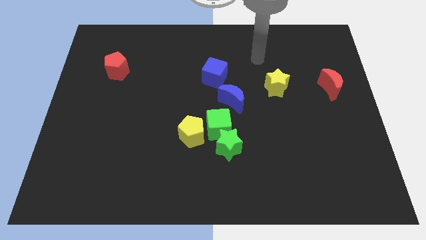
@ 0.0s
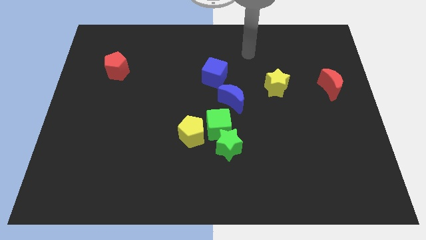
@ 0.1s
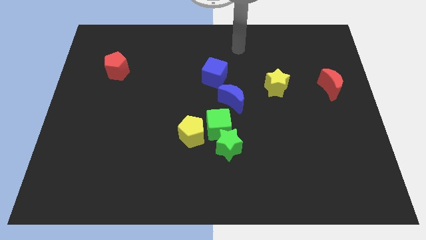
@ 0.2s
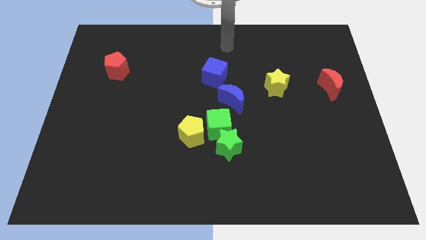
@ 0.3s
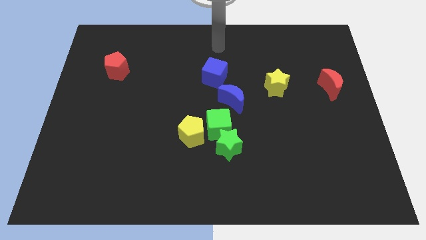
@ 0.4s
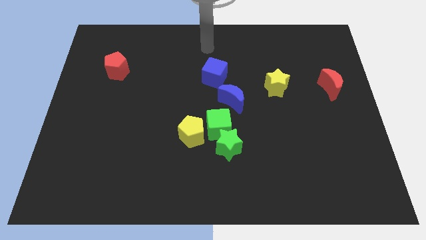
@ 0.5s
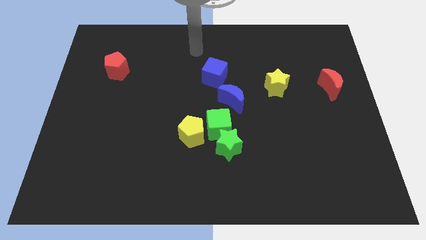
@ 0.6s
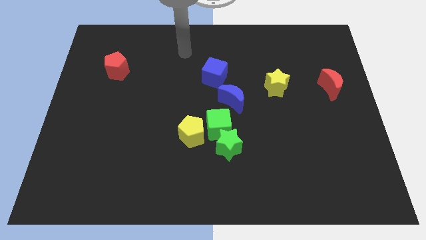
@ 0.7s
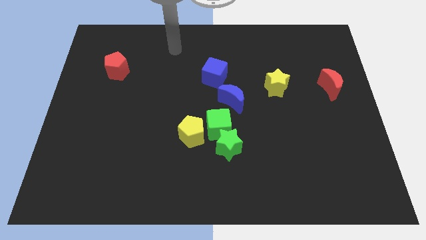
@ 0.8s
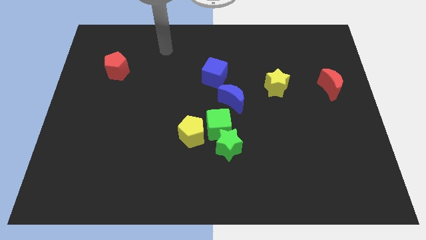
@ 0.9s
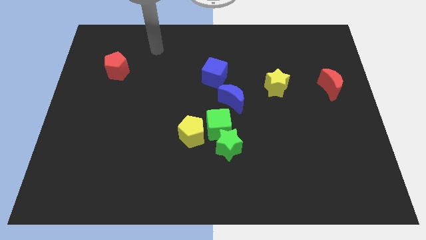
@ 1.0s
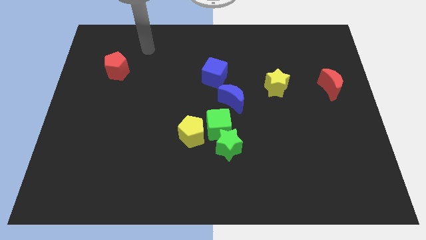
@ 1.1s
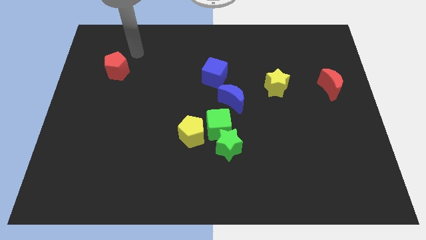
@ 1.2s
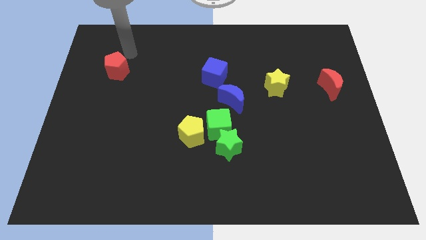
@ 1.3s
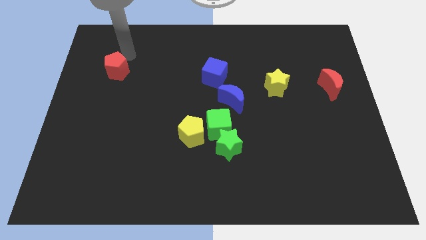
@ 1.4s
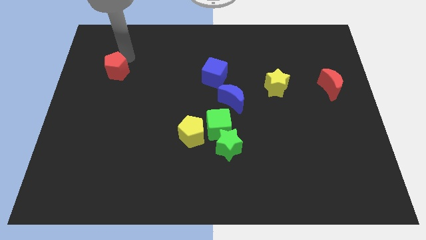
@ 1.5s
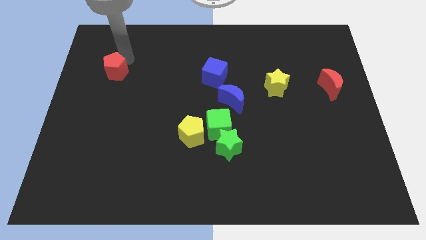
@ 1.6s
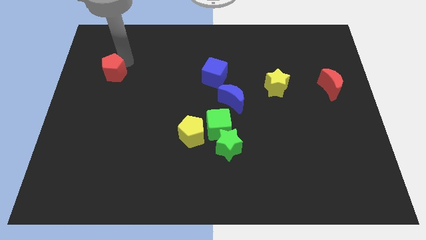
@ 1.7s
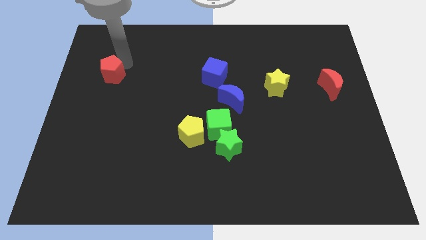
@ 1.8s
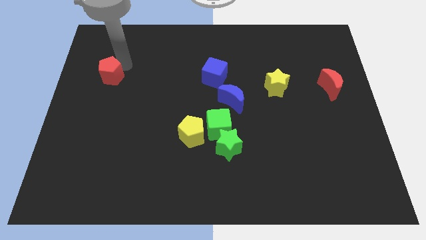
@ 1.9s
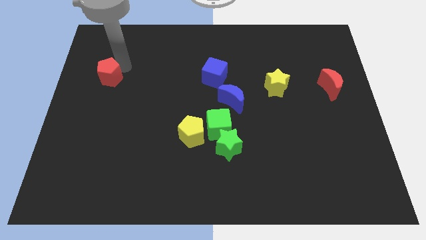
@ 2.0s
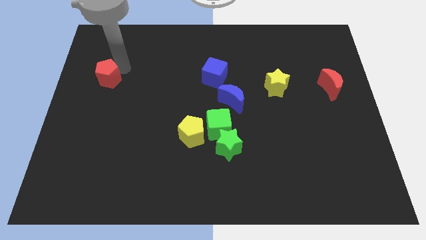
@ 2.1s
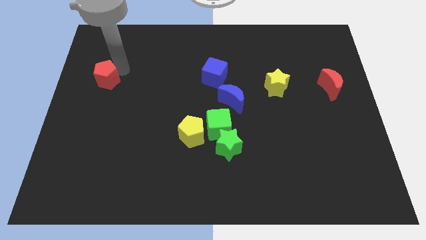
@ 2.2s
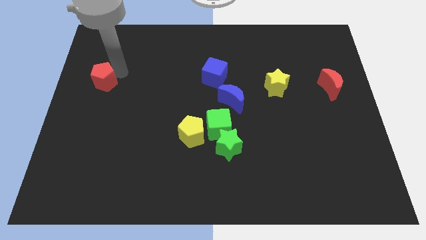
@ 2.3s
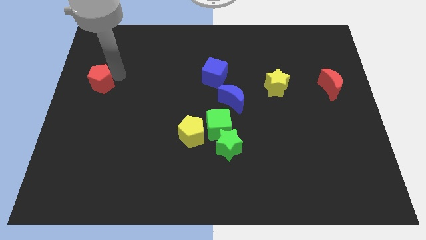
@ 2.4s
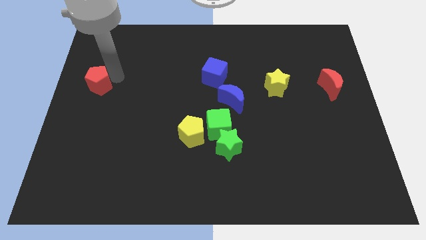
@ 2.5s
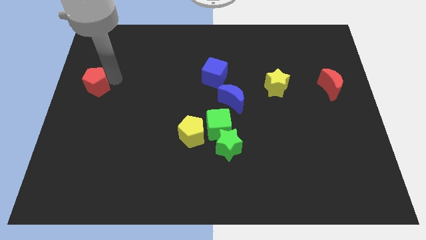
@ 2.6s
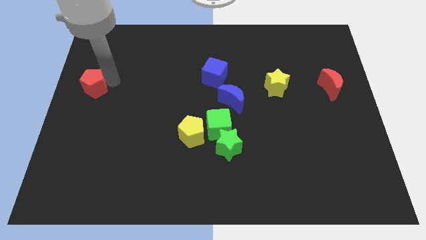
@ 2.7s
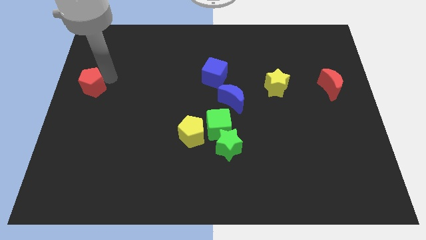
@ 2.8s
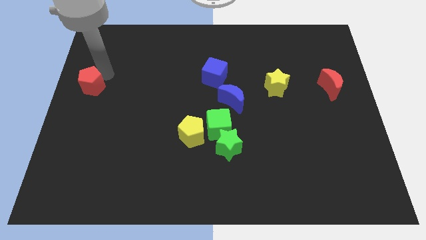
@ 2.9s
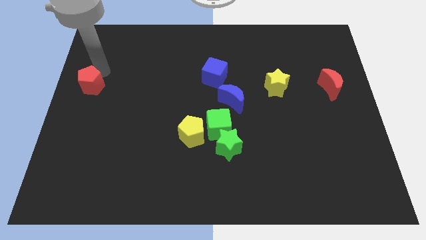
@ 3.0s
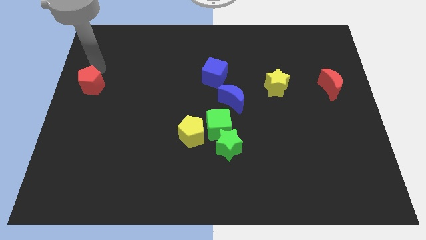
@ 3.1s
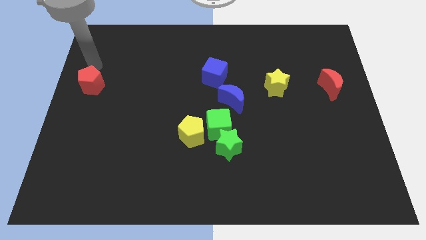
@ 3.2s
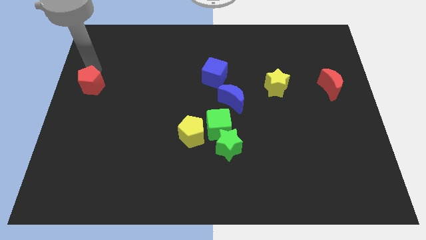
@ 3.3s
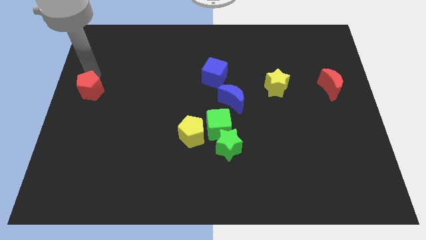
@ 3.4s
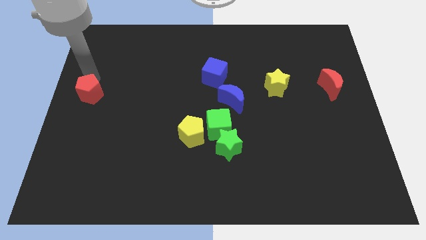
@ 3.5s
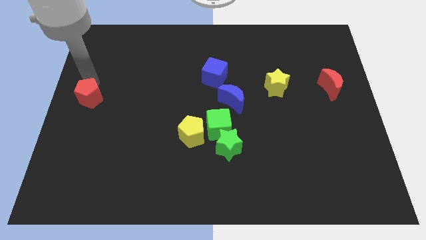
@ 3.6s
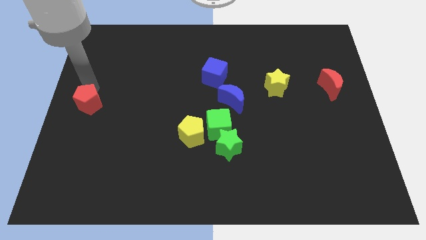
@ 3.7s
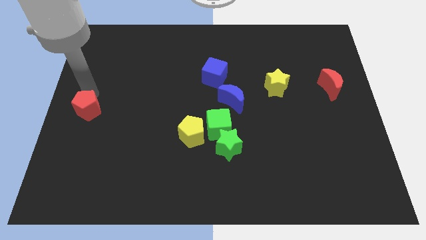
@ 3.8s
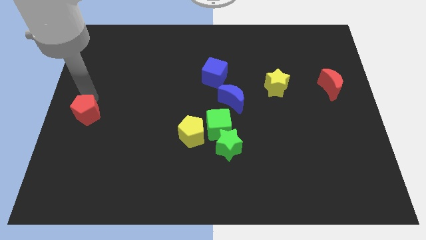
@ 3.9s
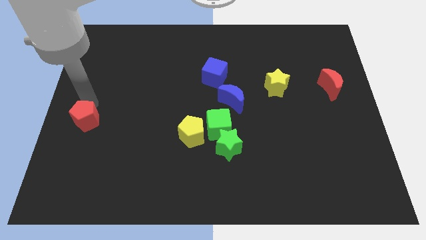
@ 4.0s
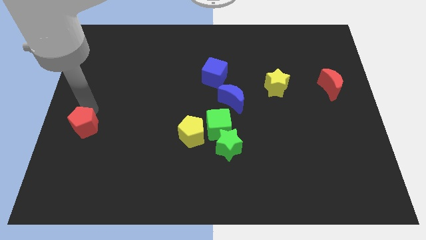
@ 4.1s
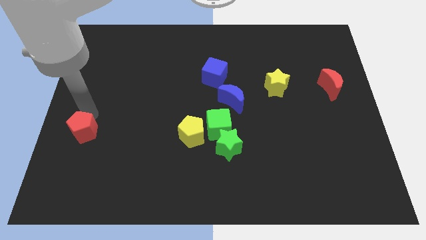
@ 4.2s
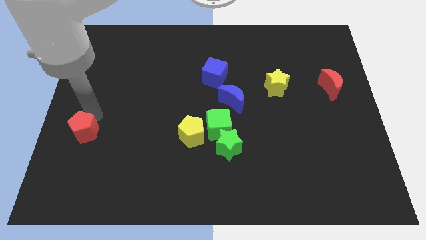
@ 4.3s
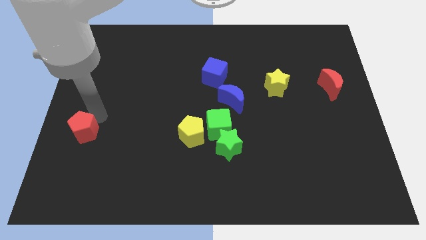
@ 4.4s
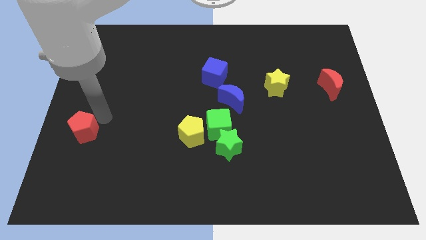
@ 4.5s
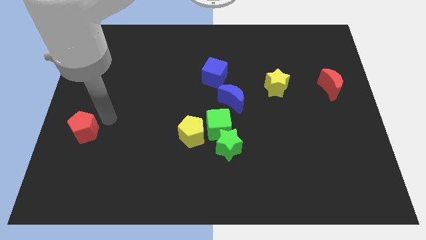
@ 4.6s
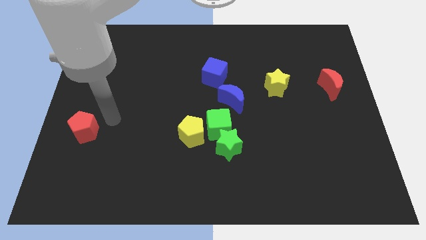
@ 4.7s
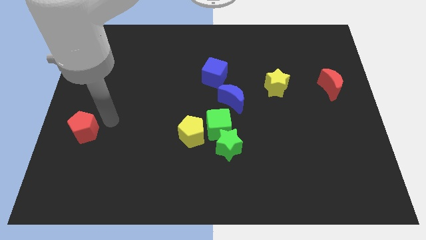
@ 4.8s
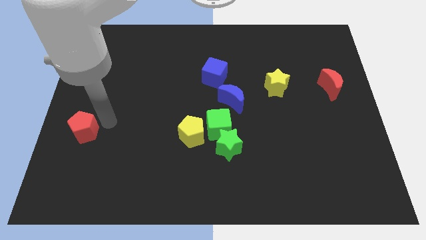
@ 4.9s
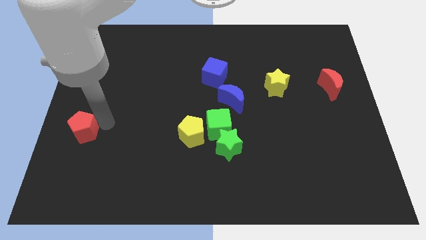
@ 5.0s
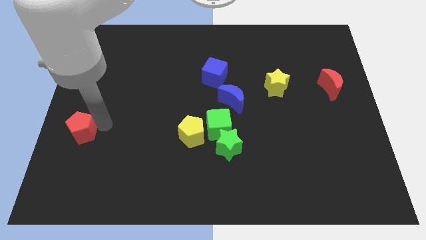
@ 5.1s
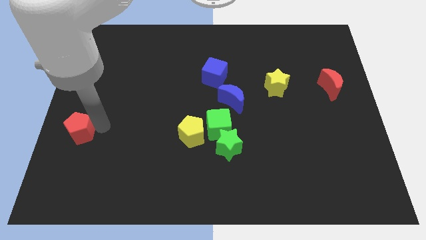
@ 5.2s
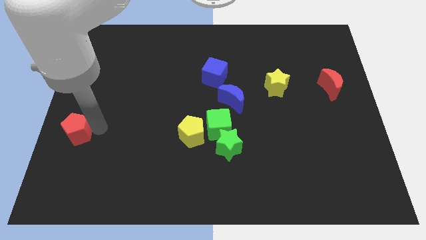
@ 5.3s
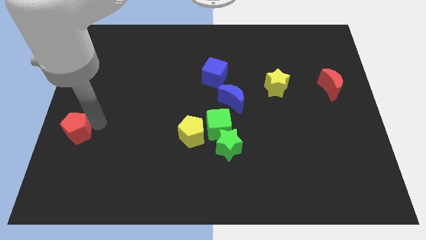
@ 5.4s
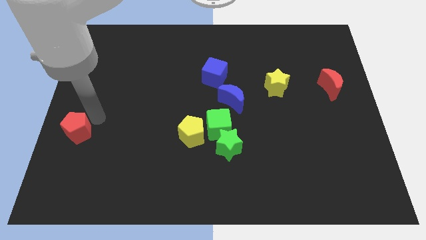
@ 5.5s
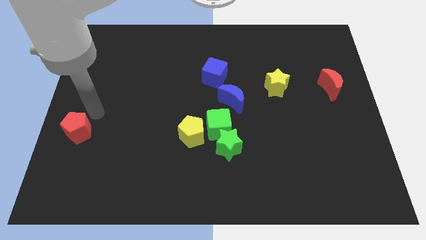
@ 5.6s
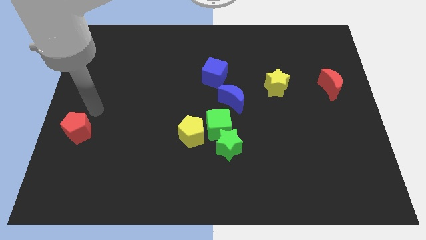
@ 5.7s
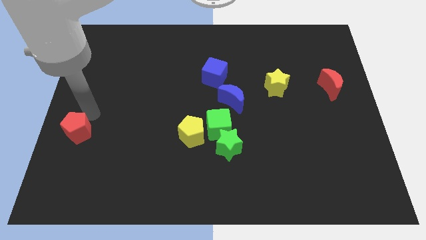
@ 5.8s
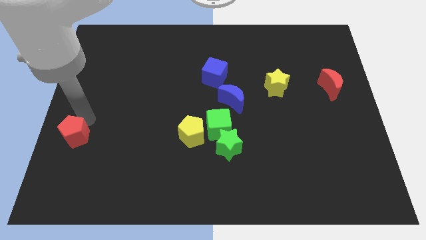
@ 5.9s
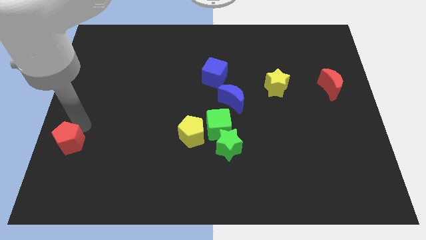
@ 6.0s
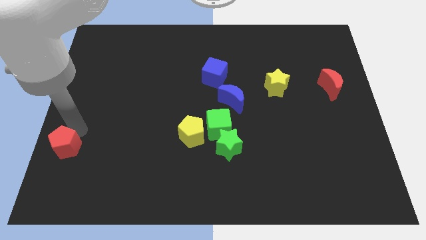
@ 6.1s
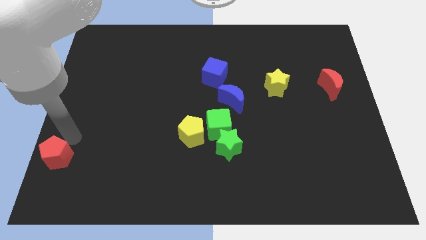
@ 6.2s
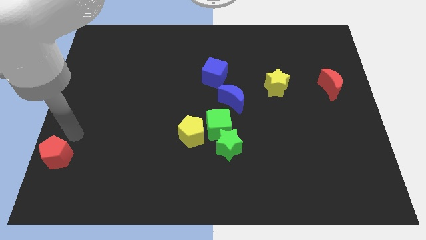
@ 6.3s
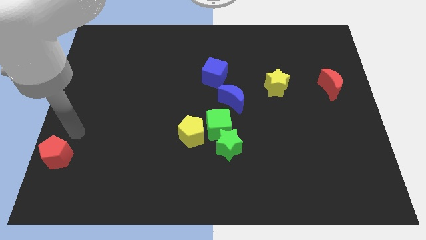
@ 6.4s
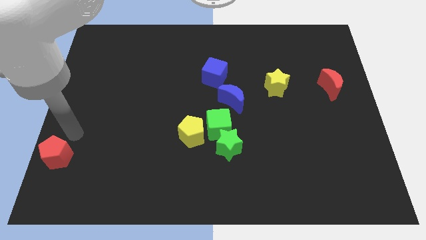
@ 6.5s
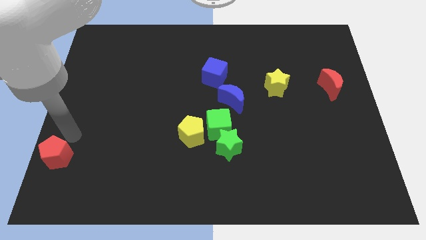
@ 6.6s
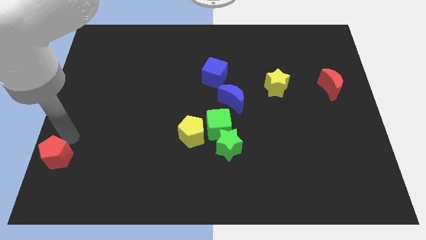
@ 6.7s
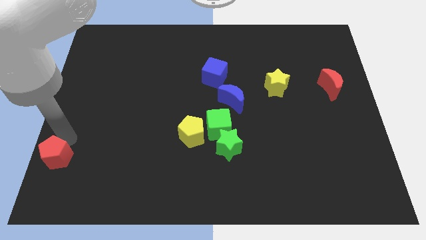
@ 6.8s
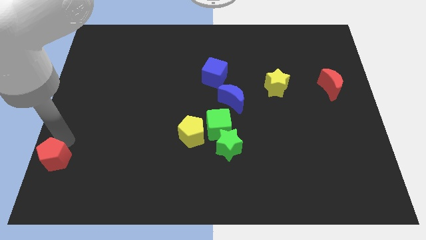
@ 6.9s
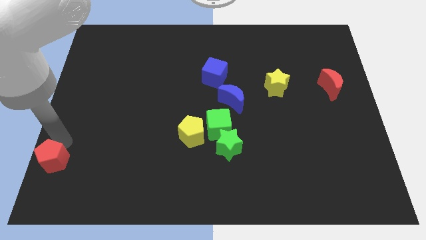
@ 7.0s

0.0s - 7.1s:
push the red pentagon to the bottom left of the board
